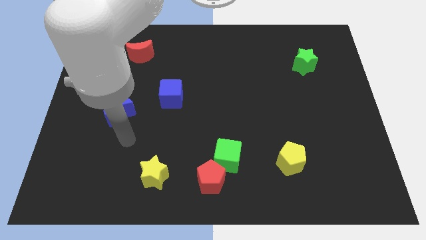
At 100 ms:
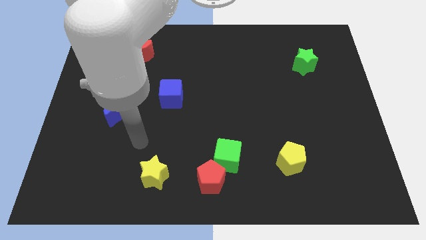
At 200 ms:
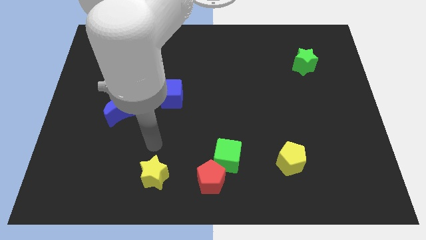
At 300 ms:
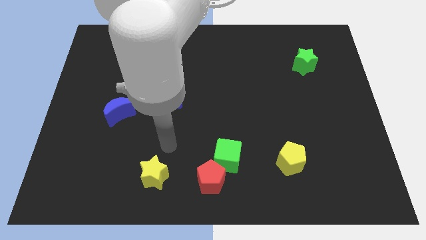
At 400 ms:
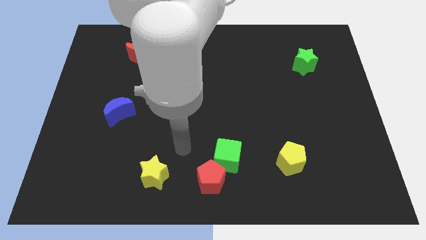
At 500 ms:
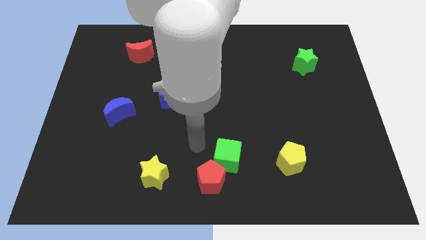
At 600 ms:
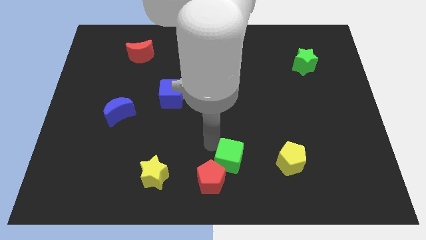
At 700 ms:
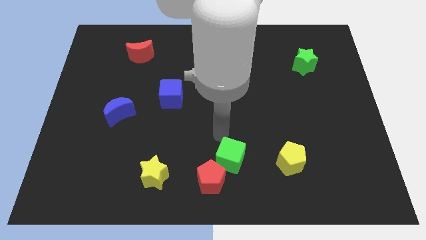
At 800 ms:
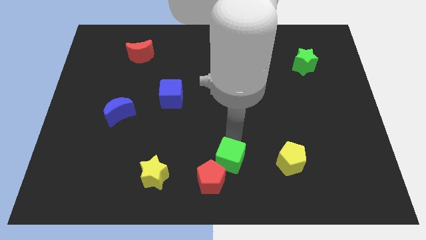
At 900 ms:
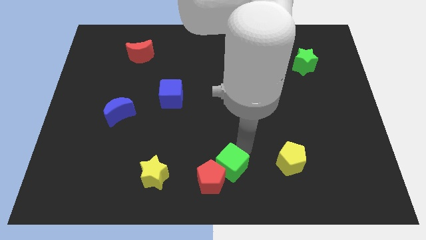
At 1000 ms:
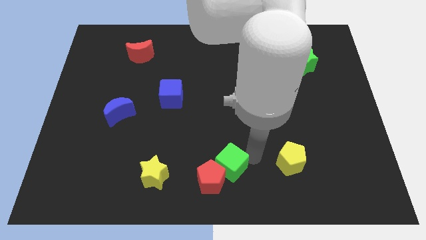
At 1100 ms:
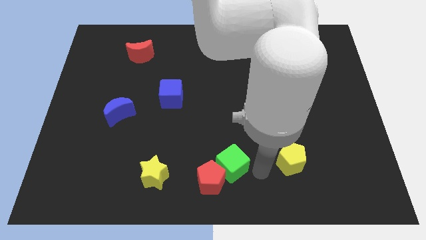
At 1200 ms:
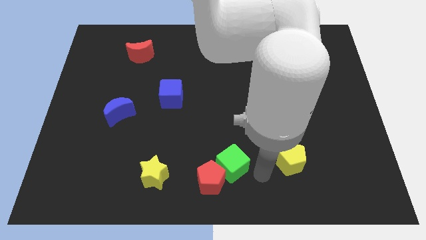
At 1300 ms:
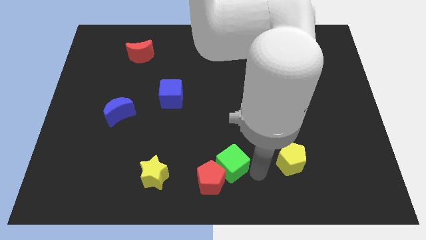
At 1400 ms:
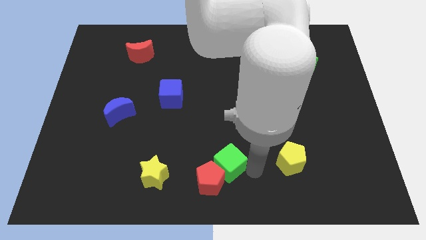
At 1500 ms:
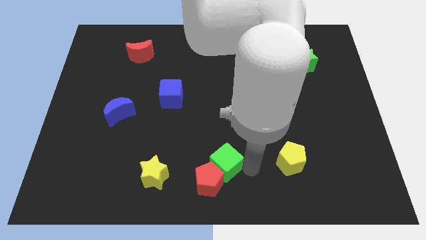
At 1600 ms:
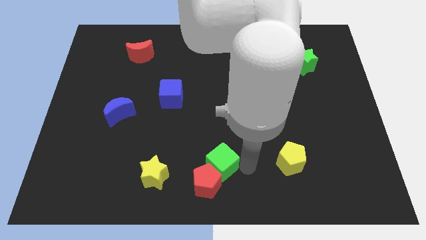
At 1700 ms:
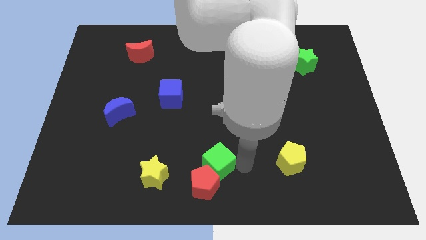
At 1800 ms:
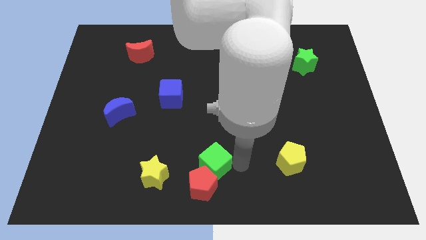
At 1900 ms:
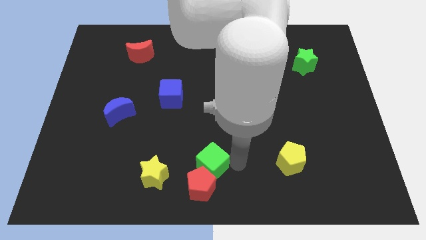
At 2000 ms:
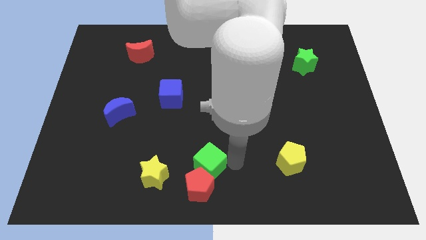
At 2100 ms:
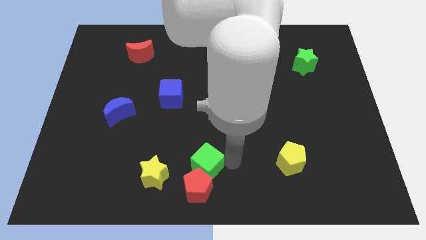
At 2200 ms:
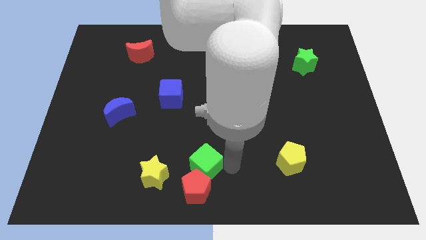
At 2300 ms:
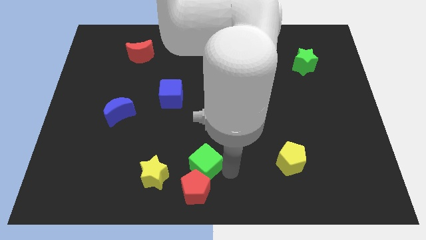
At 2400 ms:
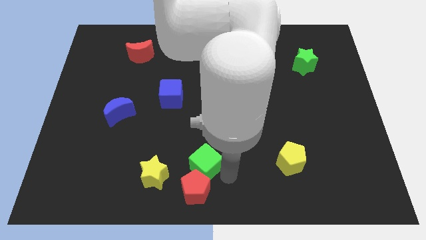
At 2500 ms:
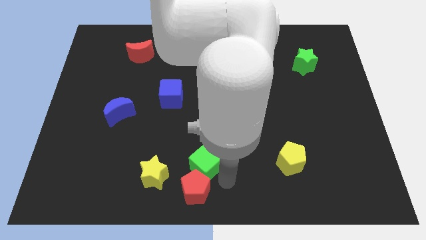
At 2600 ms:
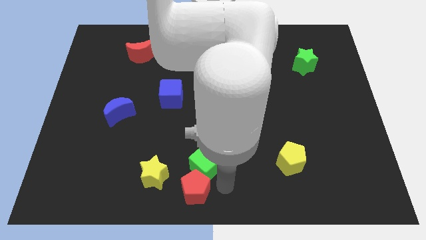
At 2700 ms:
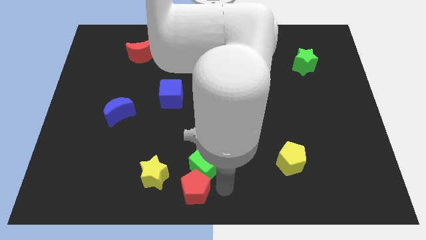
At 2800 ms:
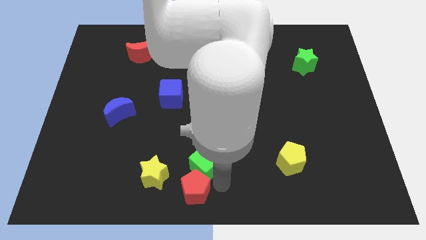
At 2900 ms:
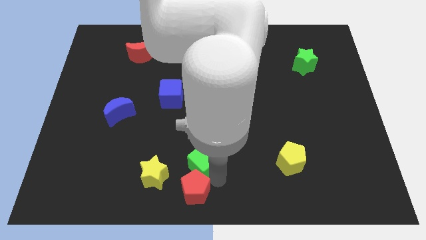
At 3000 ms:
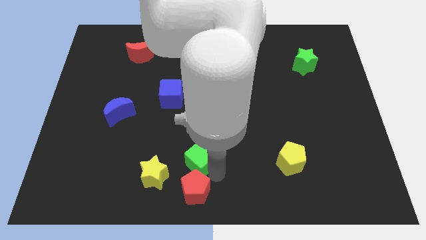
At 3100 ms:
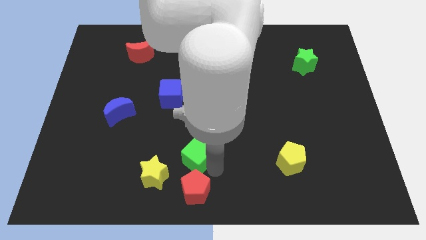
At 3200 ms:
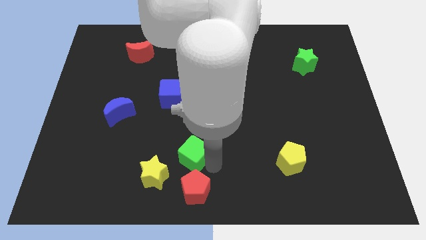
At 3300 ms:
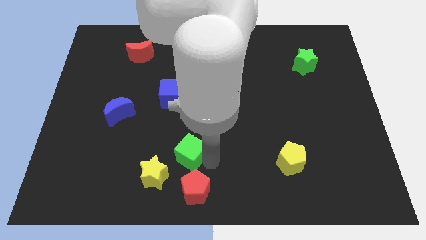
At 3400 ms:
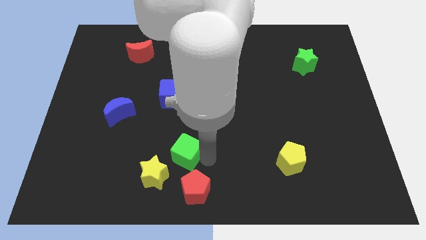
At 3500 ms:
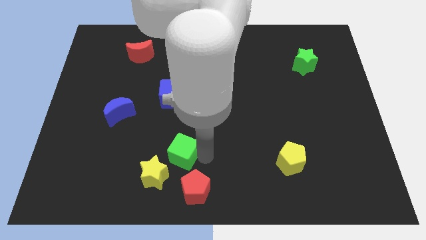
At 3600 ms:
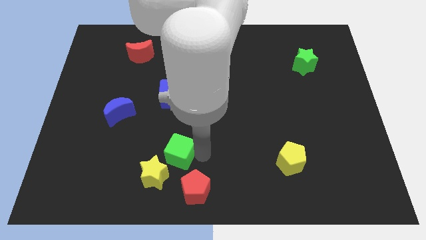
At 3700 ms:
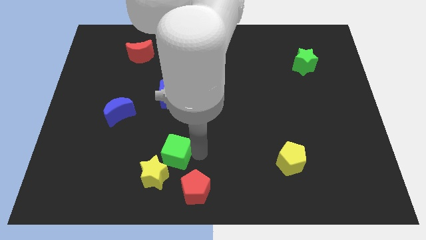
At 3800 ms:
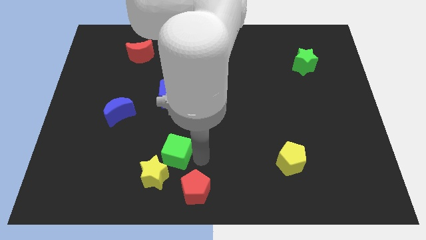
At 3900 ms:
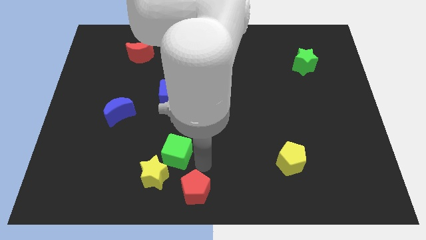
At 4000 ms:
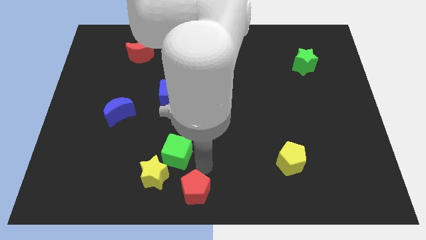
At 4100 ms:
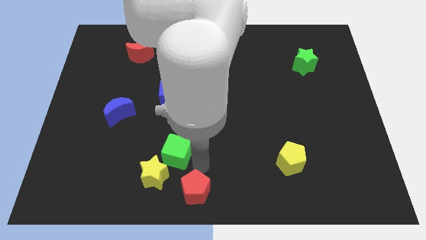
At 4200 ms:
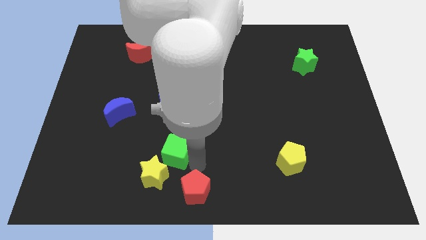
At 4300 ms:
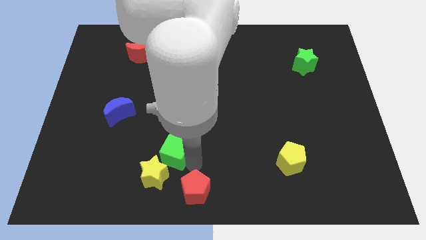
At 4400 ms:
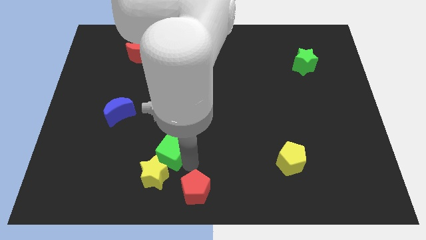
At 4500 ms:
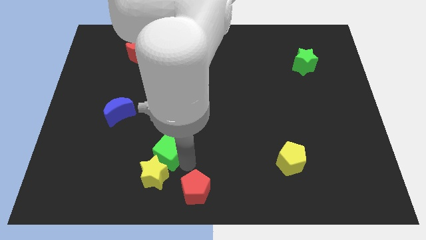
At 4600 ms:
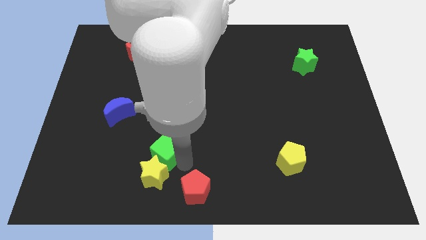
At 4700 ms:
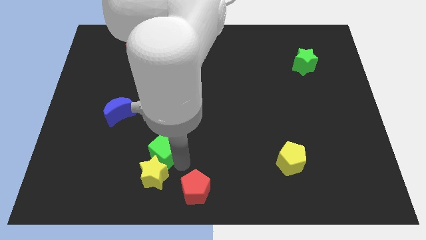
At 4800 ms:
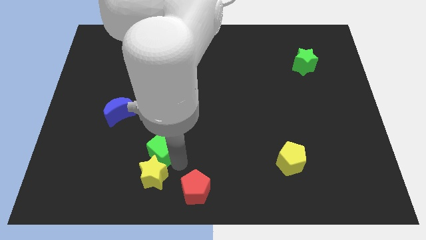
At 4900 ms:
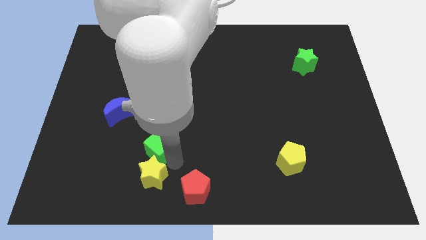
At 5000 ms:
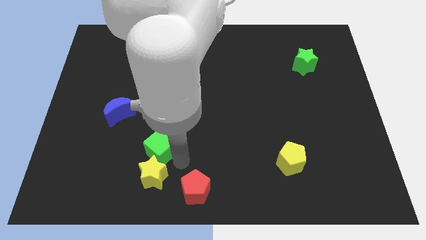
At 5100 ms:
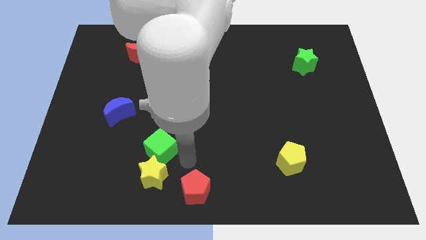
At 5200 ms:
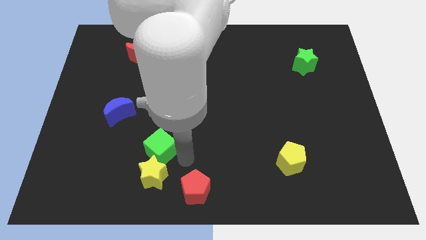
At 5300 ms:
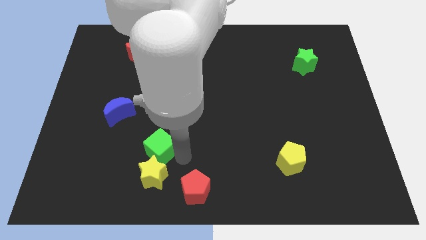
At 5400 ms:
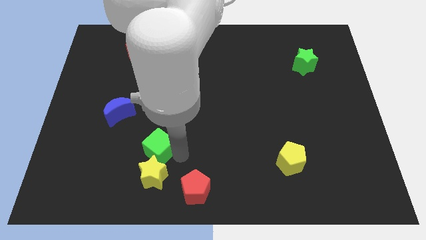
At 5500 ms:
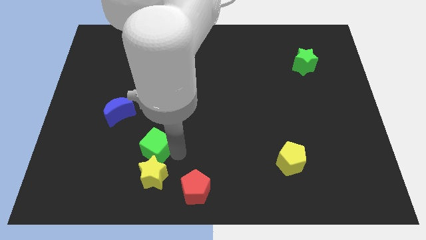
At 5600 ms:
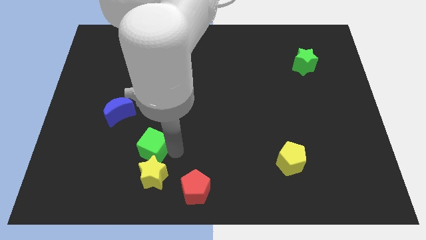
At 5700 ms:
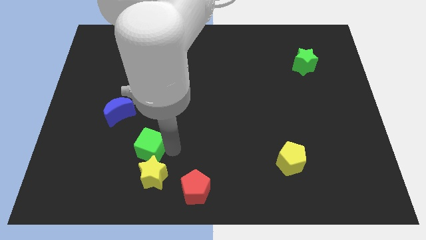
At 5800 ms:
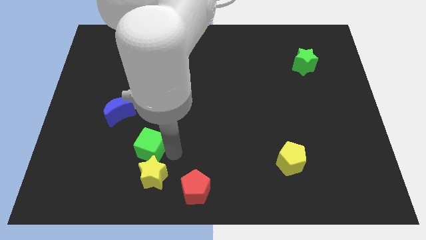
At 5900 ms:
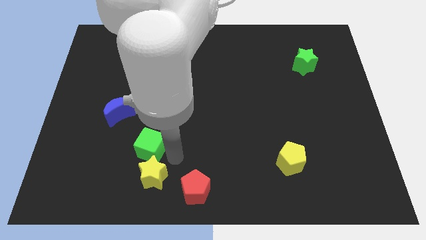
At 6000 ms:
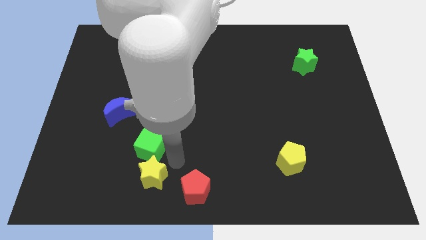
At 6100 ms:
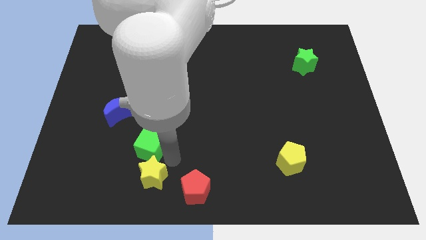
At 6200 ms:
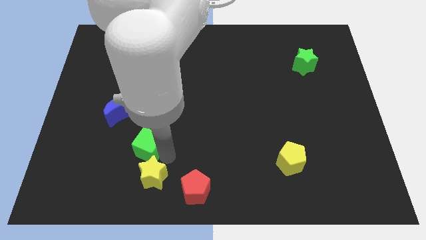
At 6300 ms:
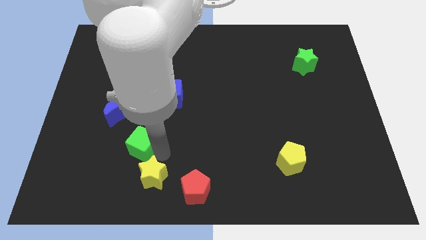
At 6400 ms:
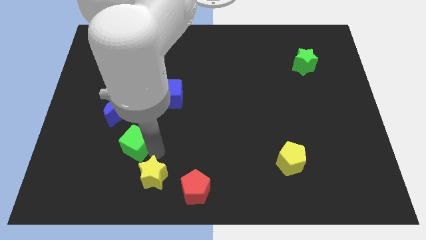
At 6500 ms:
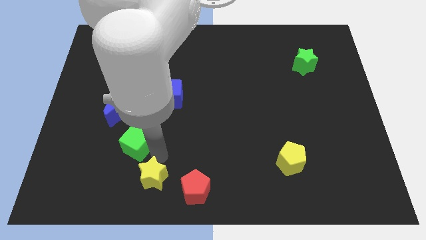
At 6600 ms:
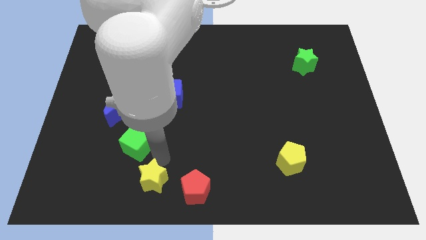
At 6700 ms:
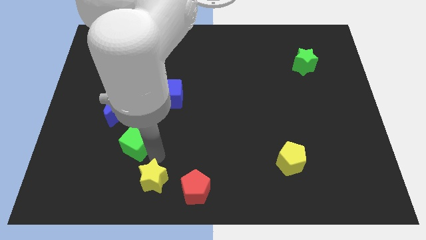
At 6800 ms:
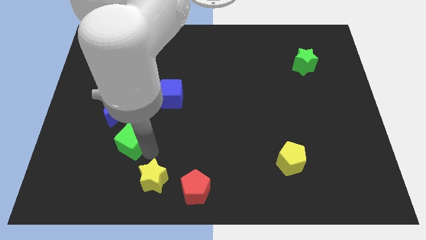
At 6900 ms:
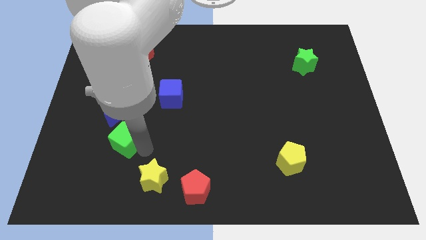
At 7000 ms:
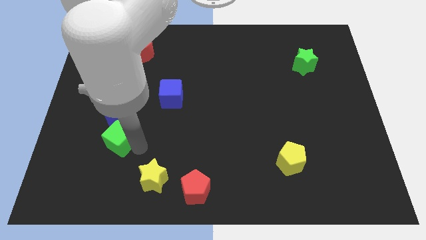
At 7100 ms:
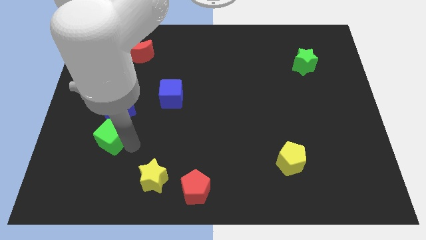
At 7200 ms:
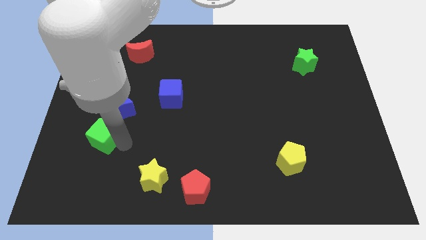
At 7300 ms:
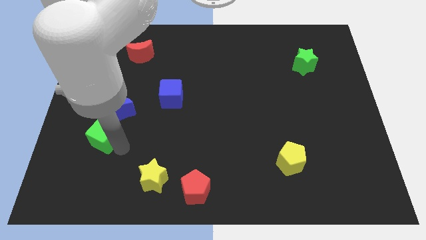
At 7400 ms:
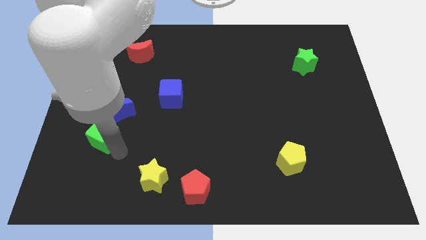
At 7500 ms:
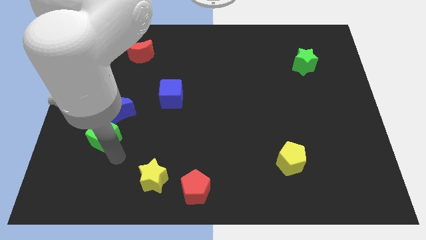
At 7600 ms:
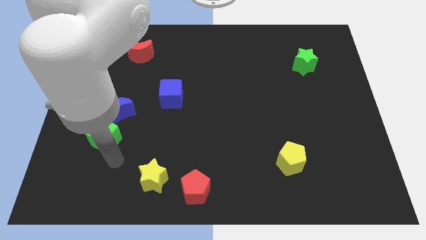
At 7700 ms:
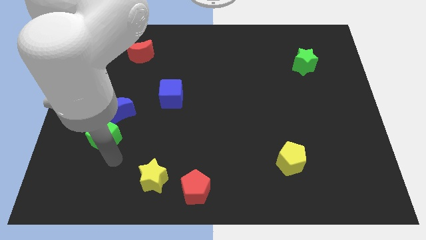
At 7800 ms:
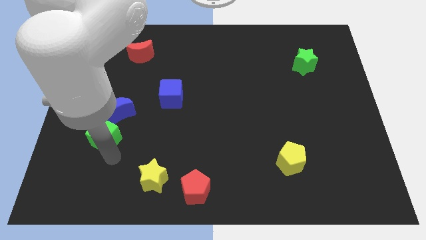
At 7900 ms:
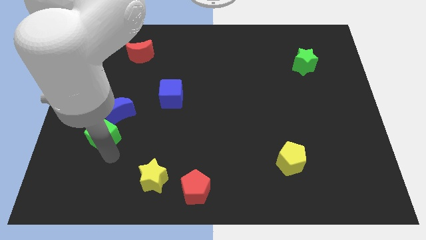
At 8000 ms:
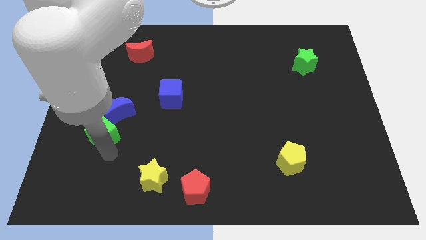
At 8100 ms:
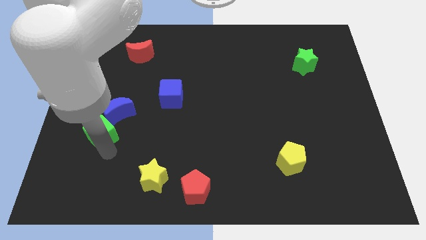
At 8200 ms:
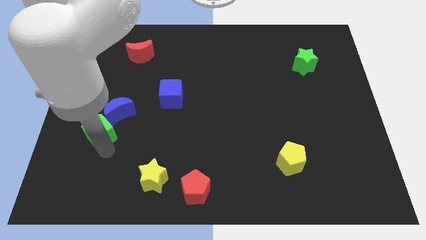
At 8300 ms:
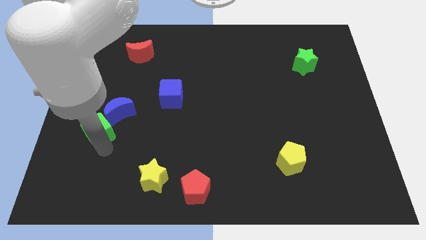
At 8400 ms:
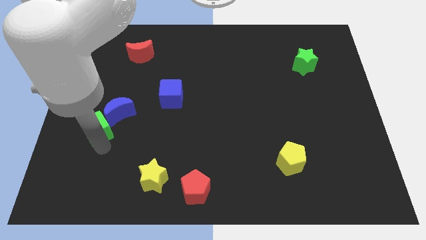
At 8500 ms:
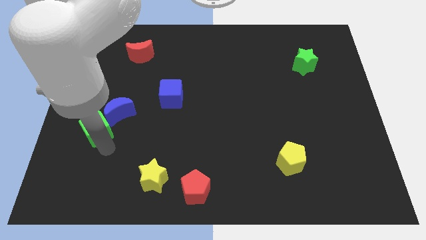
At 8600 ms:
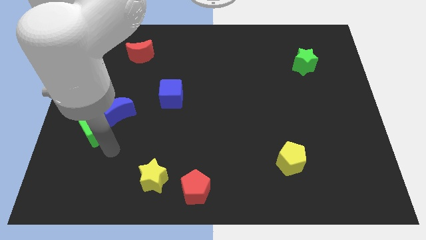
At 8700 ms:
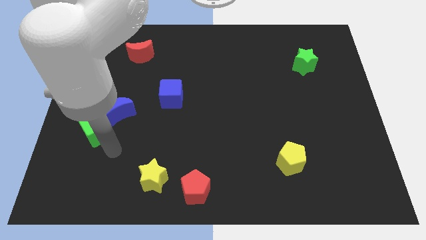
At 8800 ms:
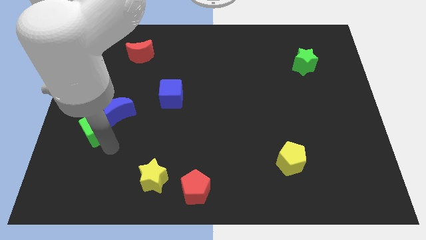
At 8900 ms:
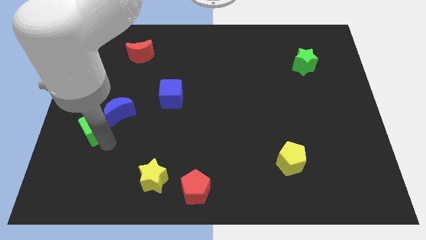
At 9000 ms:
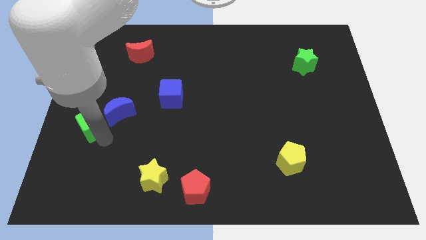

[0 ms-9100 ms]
push the green cube to the left side
